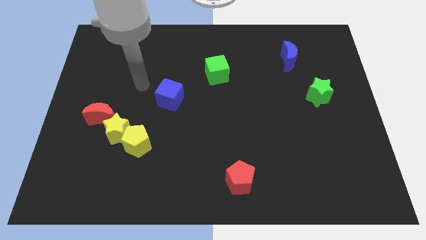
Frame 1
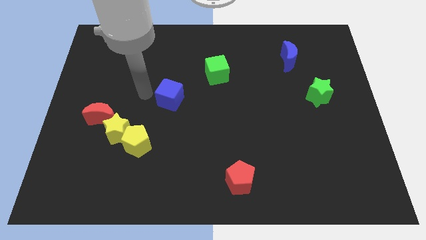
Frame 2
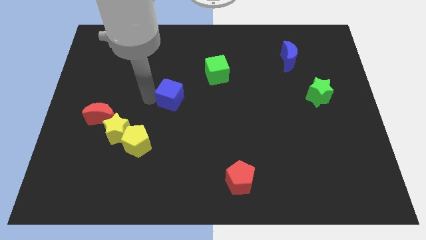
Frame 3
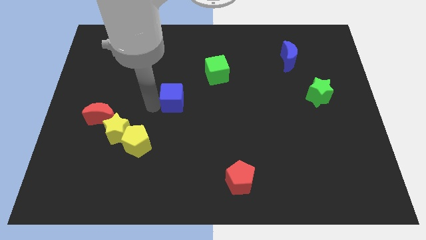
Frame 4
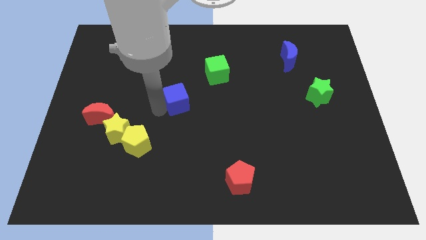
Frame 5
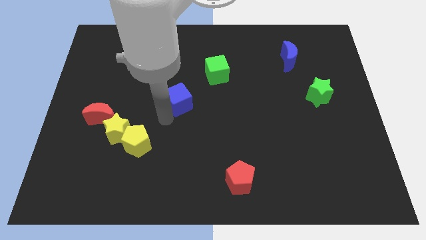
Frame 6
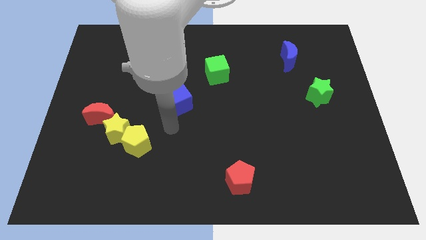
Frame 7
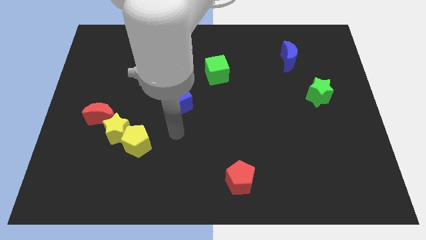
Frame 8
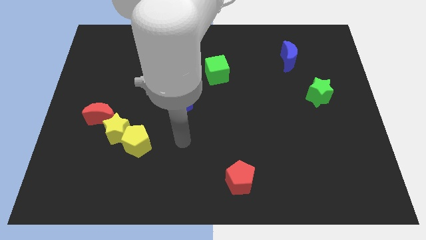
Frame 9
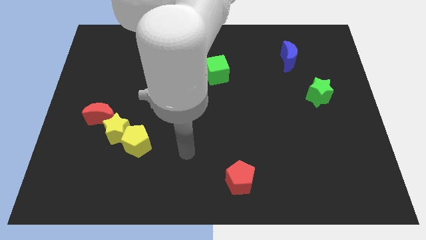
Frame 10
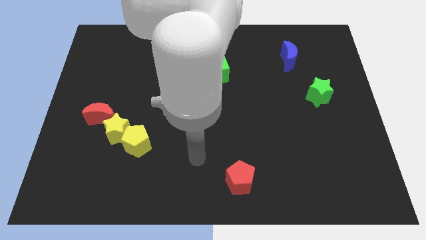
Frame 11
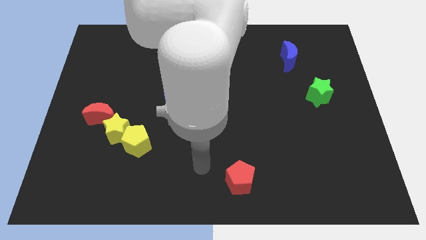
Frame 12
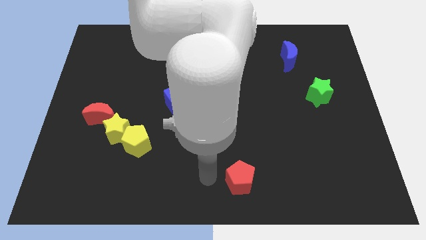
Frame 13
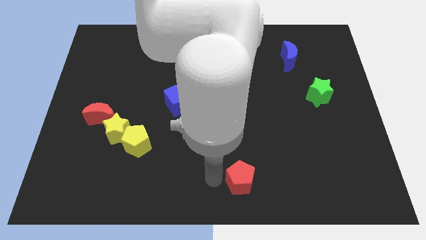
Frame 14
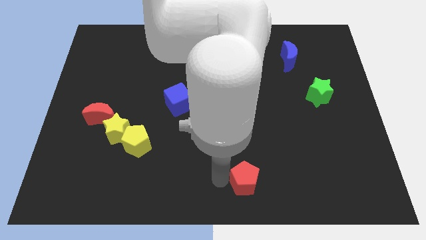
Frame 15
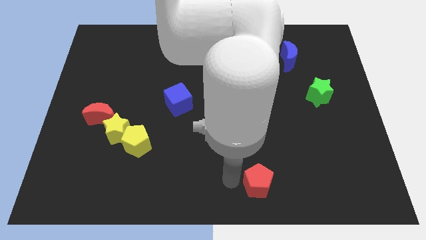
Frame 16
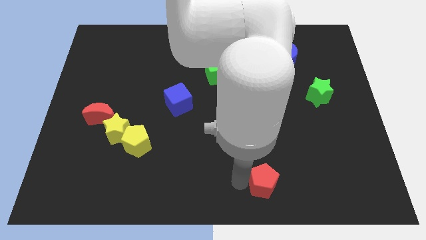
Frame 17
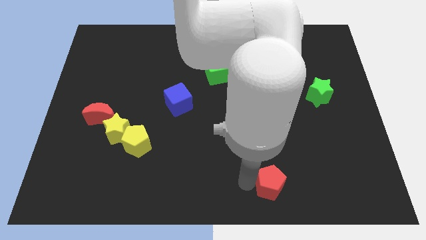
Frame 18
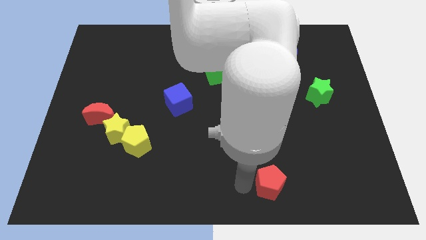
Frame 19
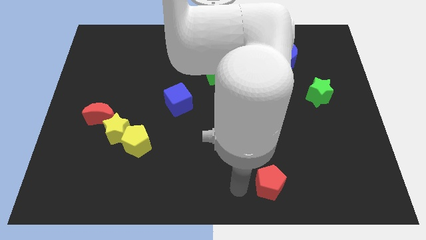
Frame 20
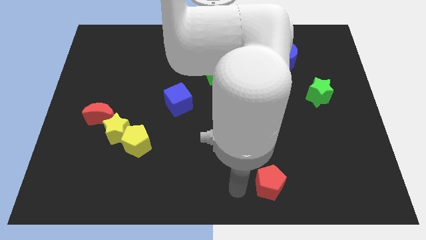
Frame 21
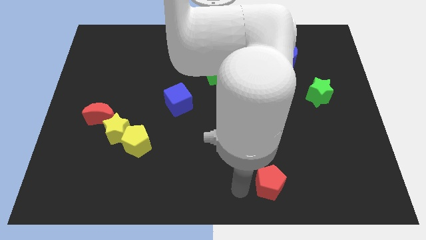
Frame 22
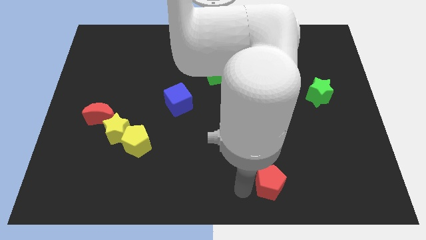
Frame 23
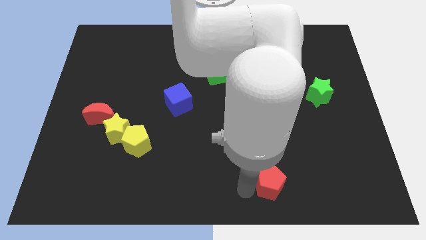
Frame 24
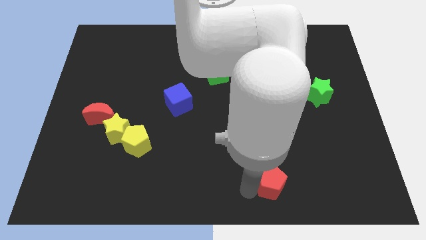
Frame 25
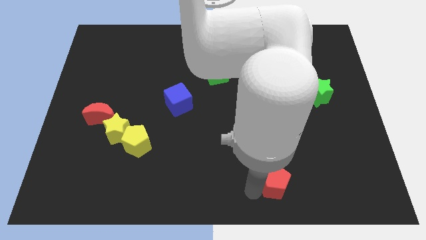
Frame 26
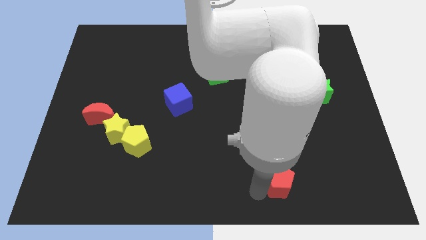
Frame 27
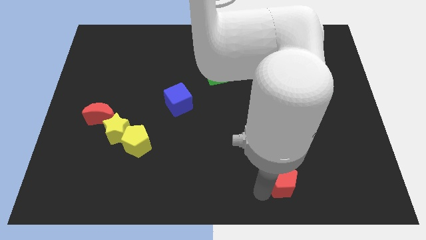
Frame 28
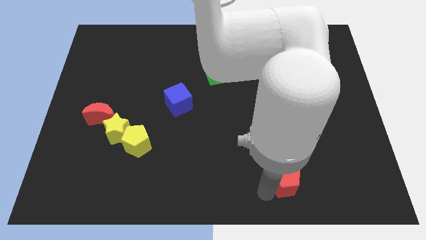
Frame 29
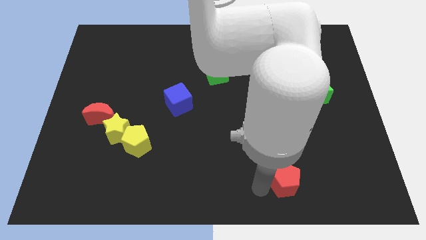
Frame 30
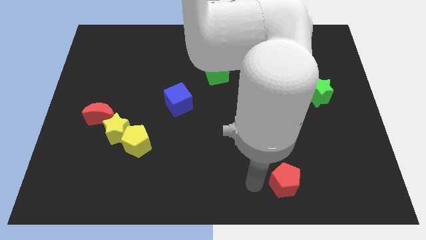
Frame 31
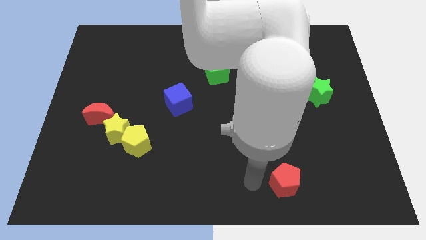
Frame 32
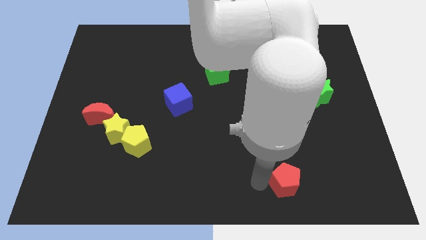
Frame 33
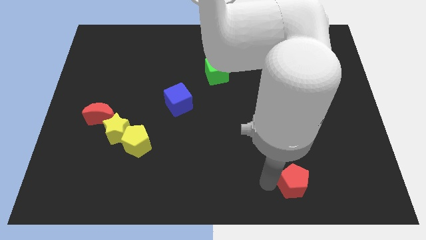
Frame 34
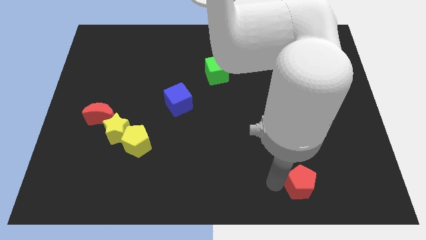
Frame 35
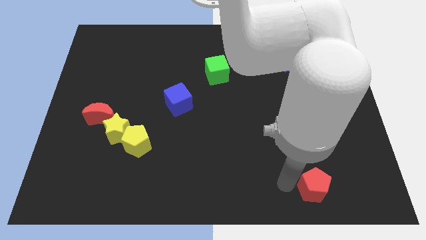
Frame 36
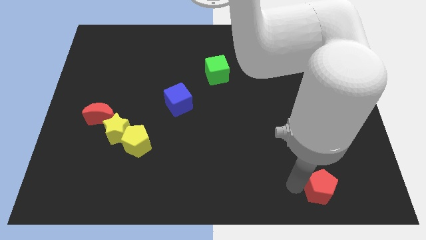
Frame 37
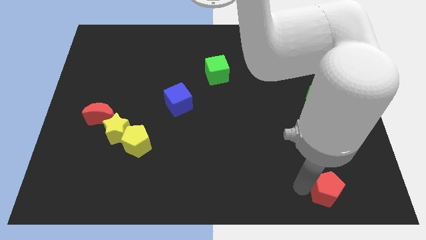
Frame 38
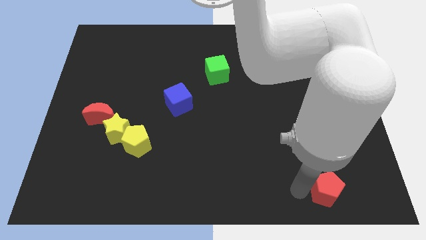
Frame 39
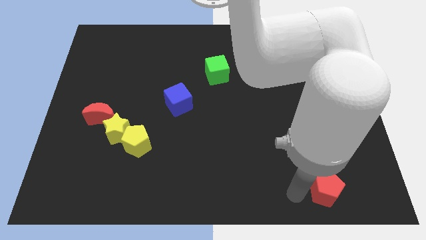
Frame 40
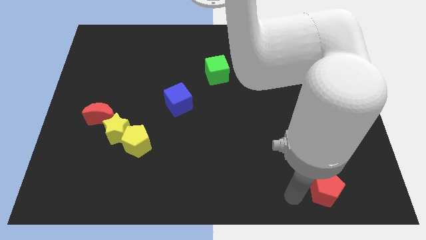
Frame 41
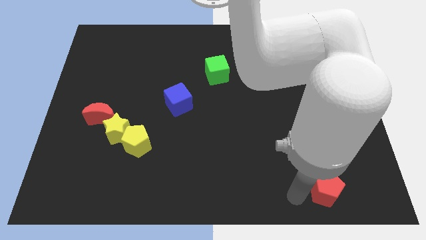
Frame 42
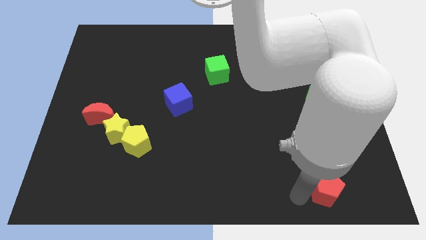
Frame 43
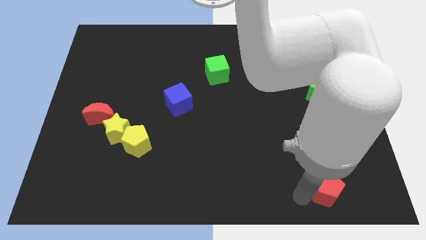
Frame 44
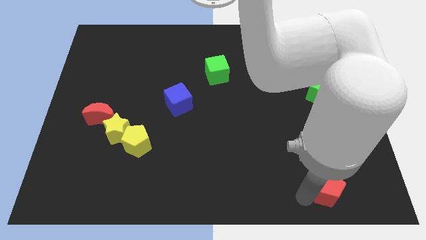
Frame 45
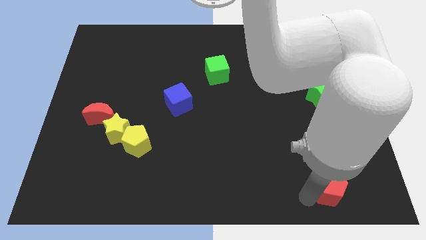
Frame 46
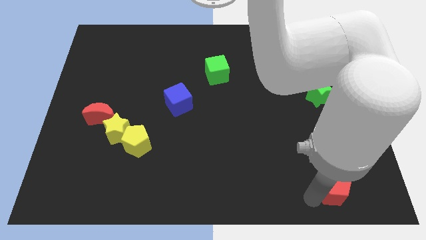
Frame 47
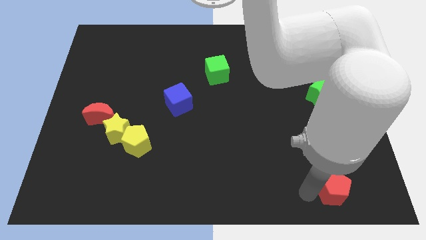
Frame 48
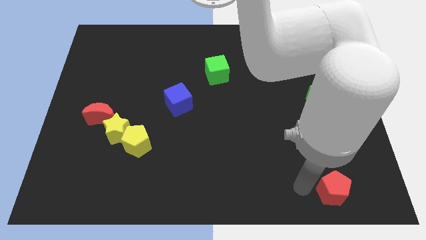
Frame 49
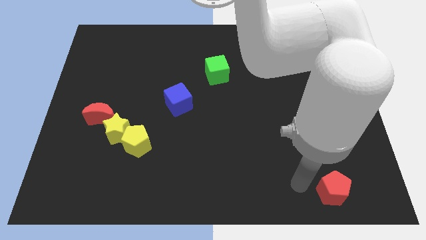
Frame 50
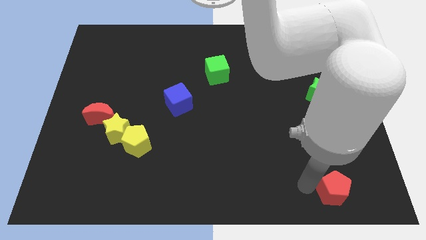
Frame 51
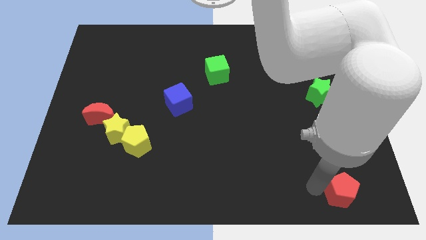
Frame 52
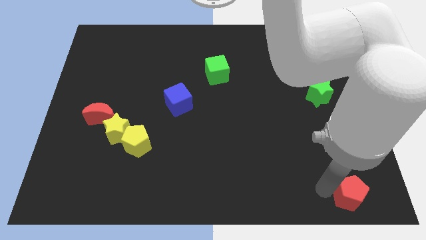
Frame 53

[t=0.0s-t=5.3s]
slide the red pentagon to the bottom right corner

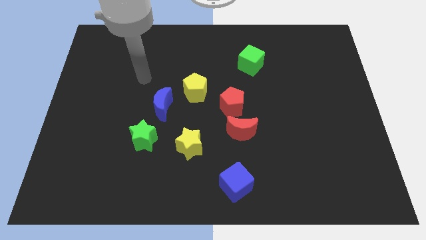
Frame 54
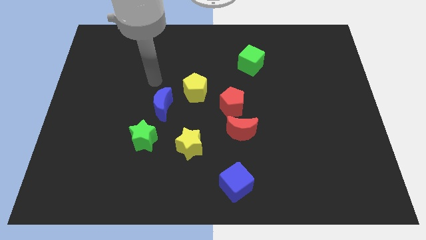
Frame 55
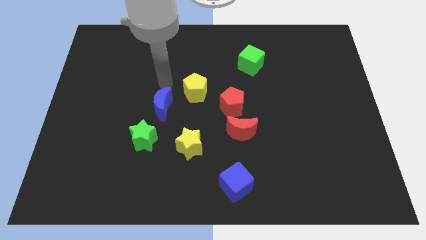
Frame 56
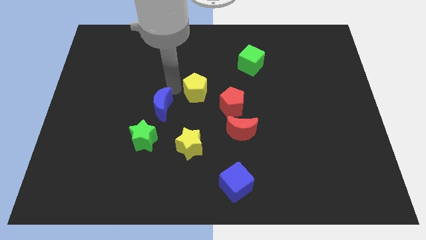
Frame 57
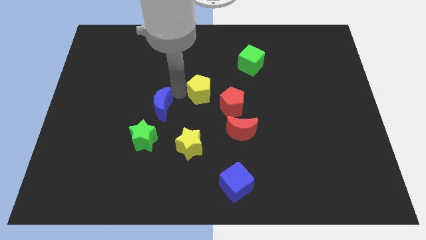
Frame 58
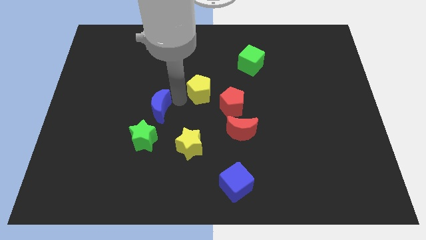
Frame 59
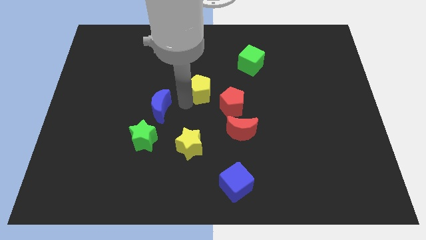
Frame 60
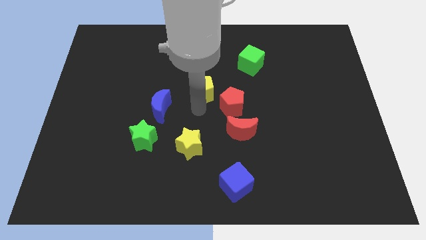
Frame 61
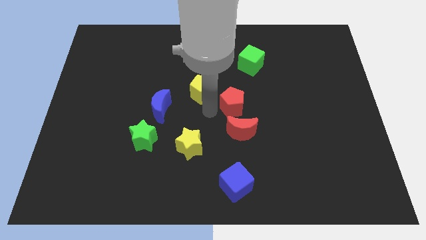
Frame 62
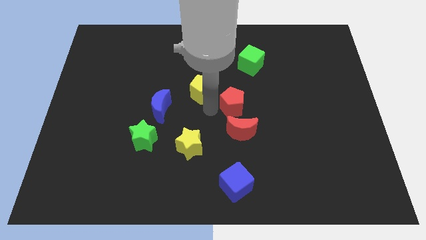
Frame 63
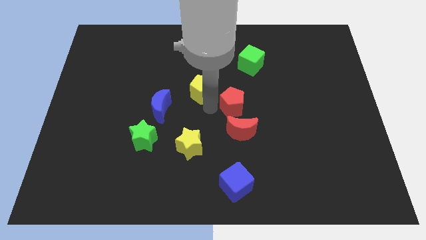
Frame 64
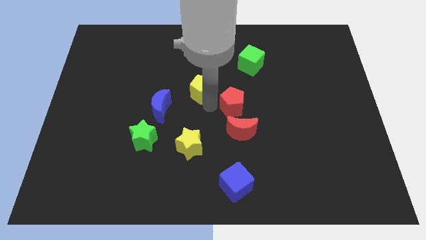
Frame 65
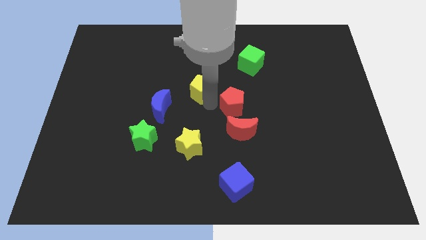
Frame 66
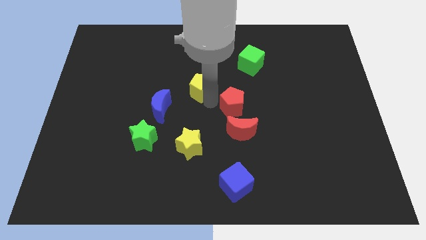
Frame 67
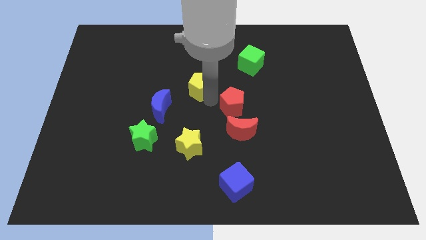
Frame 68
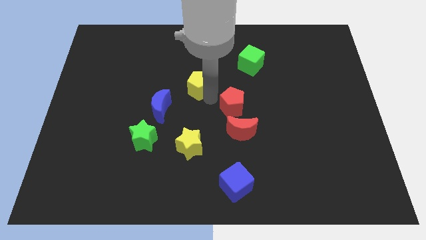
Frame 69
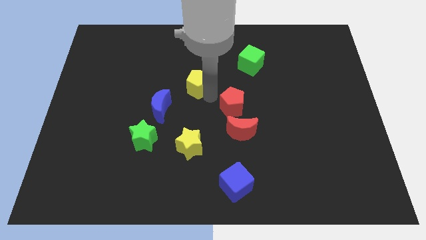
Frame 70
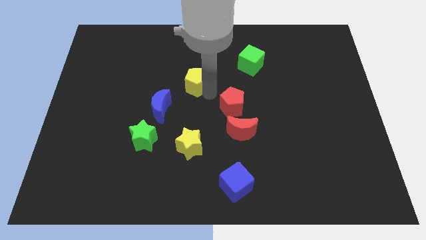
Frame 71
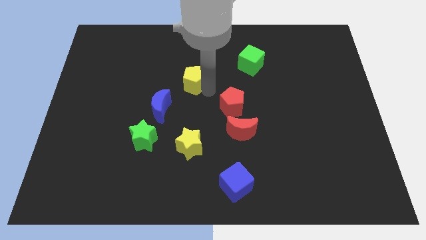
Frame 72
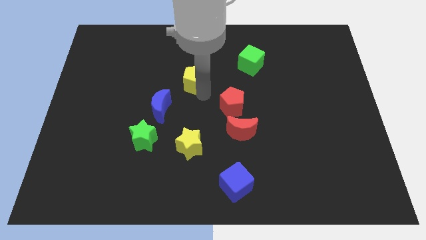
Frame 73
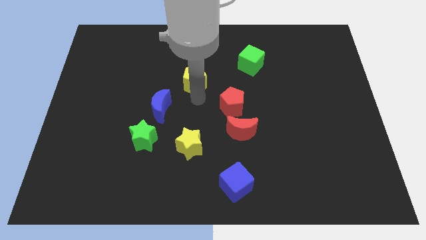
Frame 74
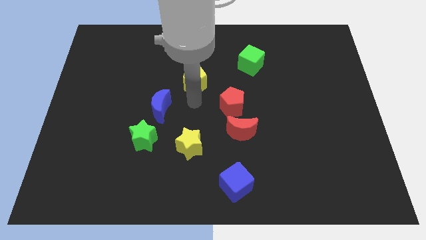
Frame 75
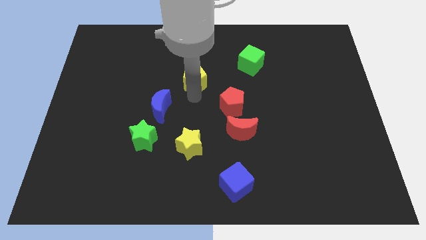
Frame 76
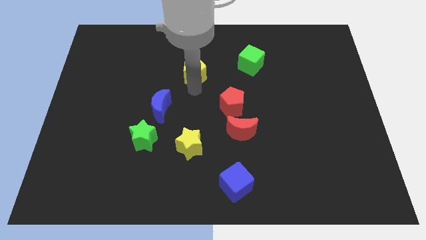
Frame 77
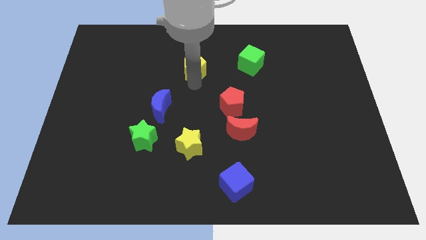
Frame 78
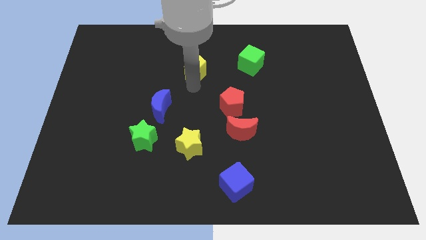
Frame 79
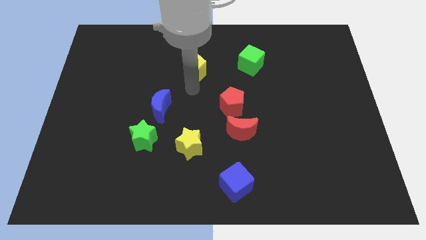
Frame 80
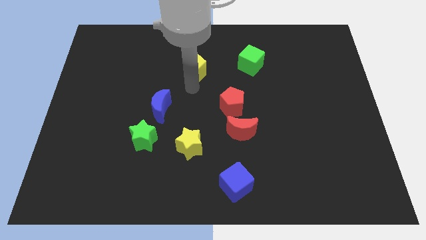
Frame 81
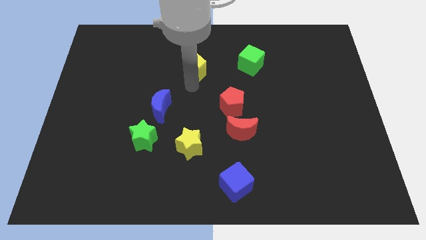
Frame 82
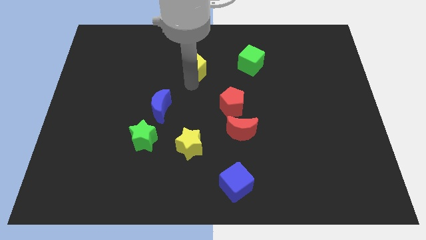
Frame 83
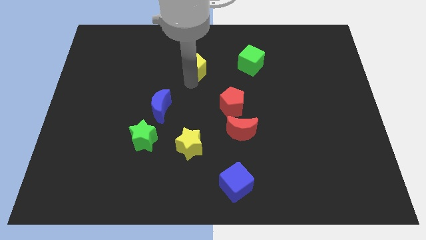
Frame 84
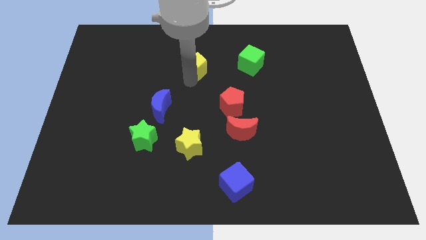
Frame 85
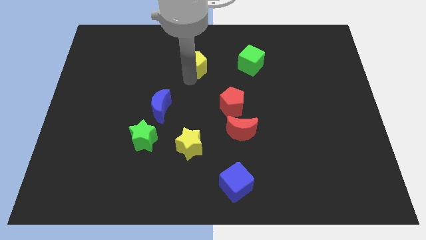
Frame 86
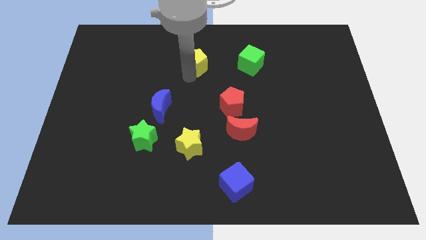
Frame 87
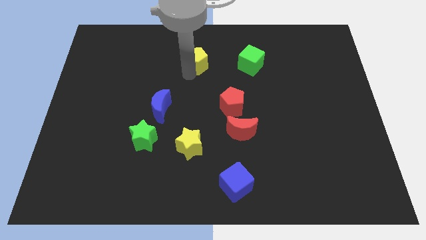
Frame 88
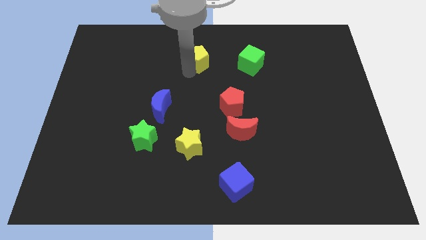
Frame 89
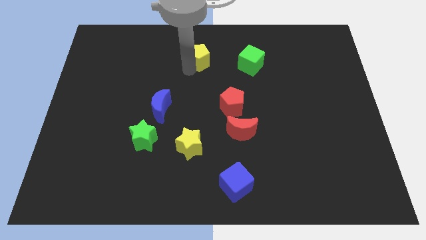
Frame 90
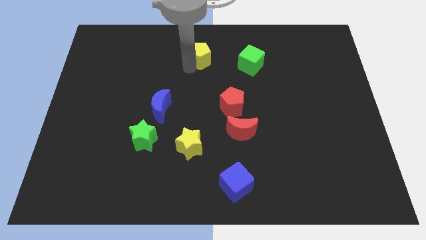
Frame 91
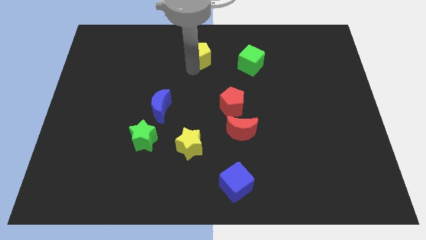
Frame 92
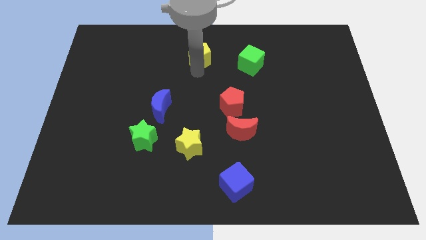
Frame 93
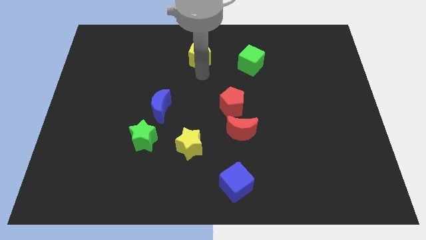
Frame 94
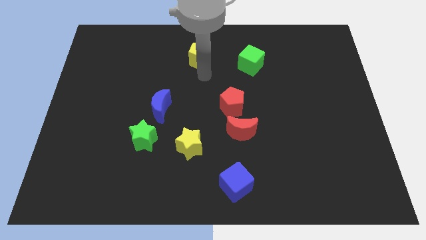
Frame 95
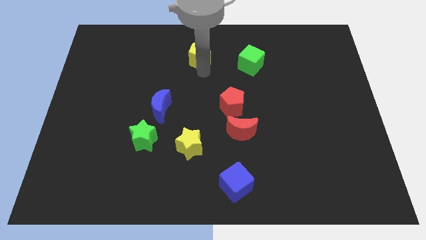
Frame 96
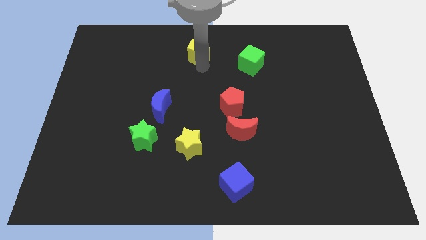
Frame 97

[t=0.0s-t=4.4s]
push the yellow pentagon to the top side
